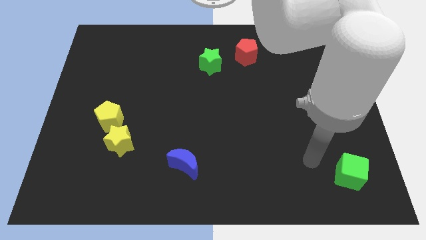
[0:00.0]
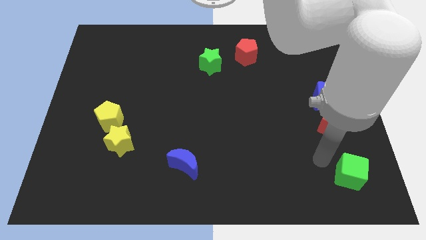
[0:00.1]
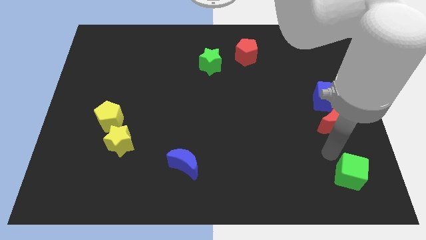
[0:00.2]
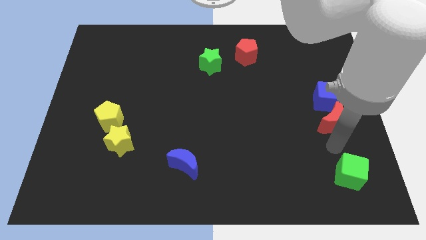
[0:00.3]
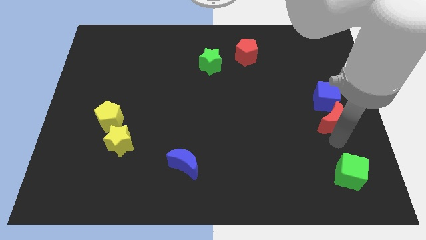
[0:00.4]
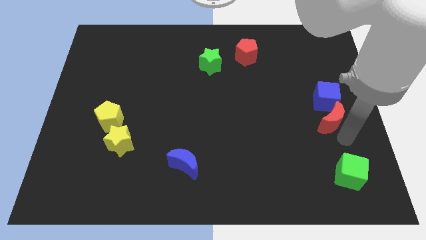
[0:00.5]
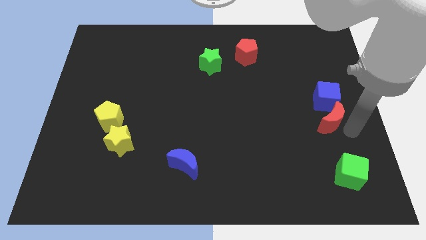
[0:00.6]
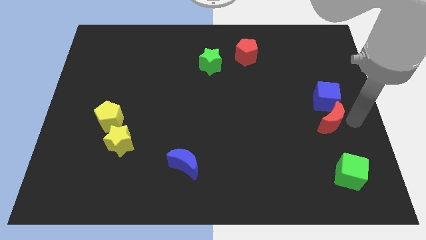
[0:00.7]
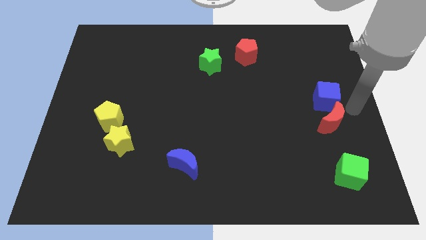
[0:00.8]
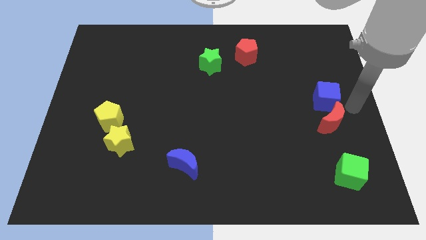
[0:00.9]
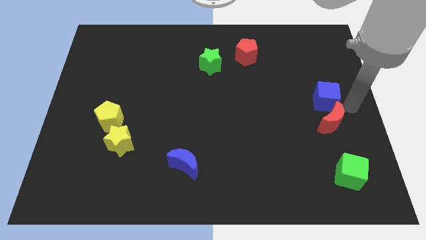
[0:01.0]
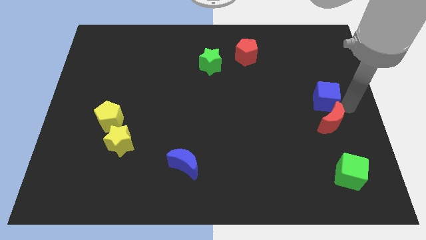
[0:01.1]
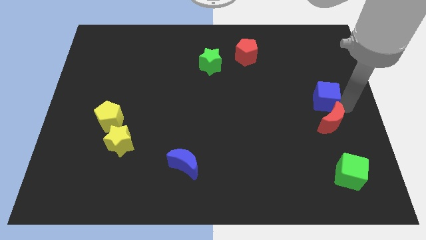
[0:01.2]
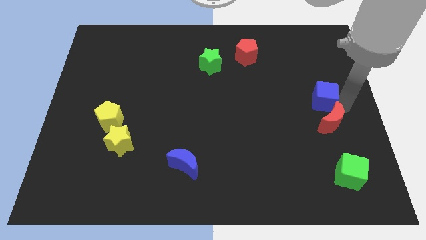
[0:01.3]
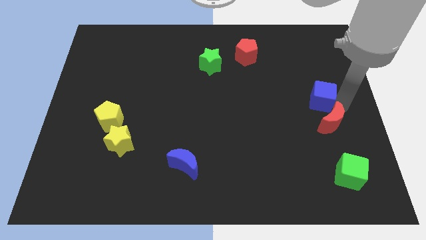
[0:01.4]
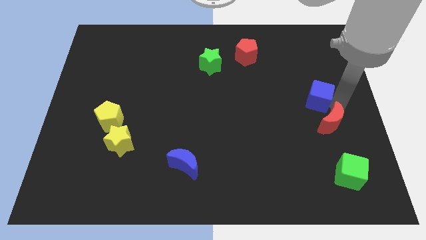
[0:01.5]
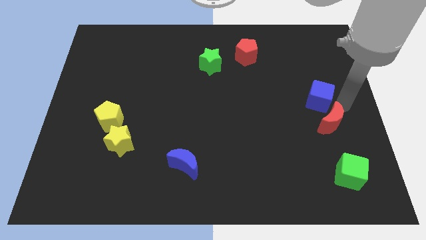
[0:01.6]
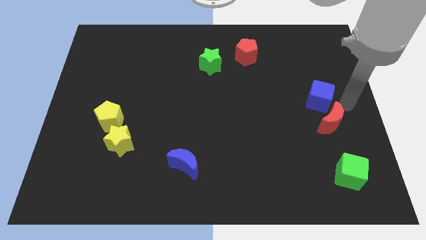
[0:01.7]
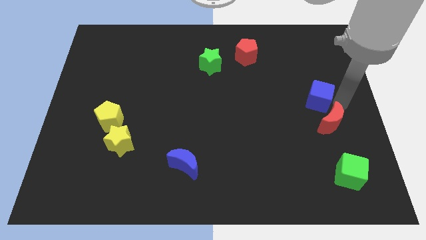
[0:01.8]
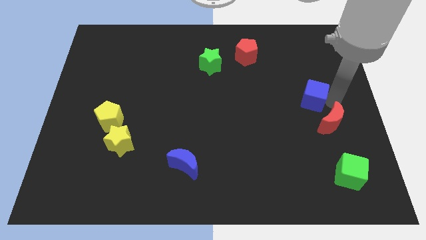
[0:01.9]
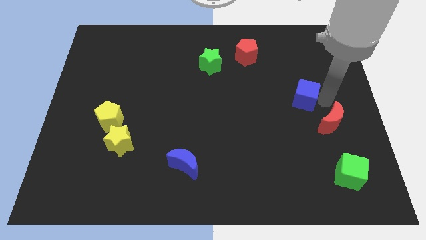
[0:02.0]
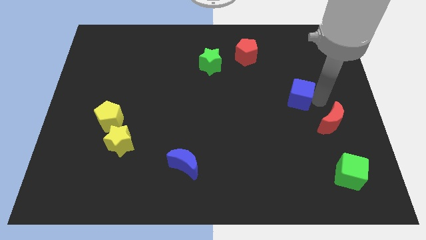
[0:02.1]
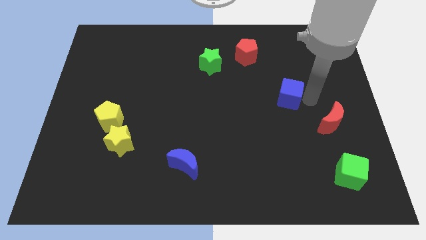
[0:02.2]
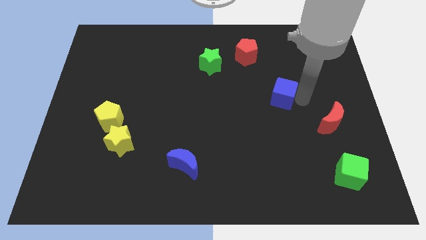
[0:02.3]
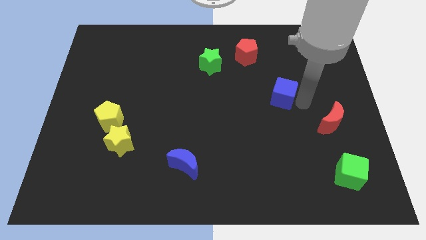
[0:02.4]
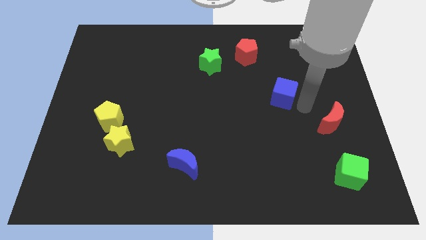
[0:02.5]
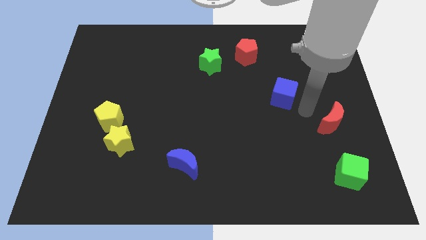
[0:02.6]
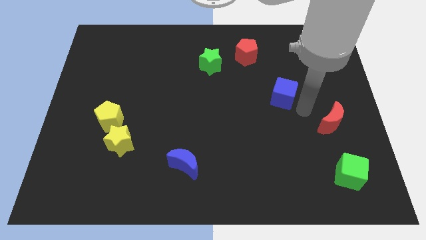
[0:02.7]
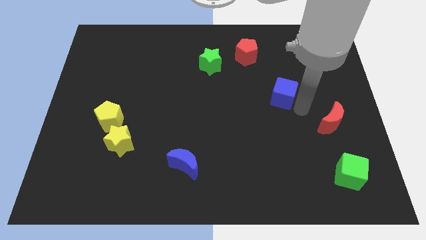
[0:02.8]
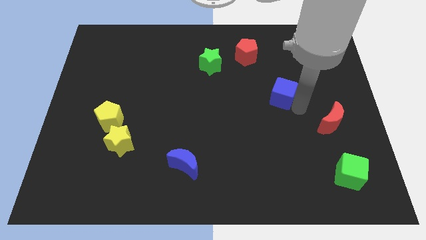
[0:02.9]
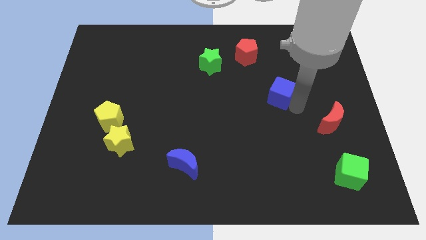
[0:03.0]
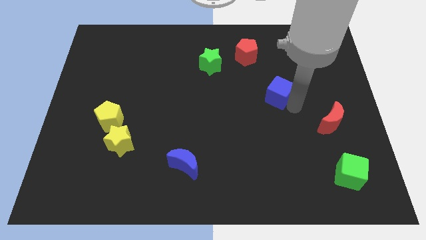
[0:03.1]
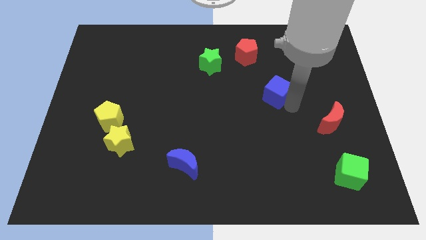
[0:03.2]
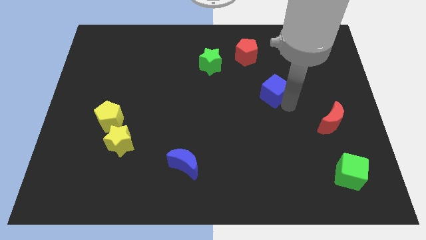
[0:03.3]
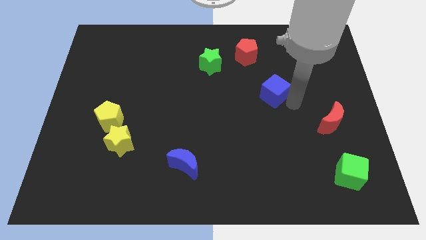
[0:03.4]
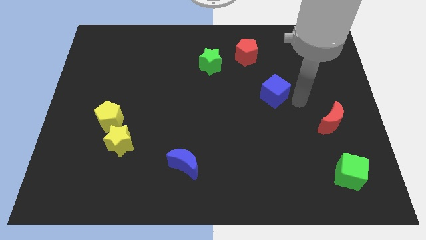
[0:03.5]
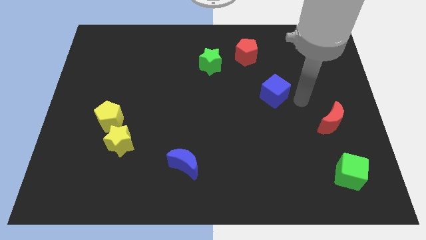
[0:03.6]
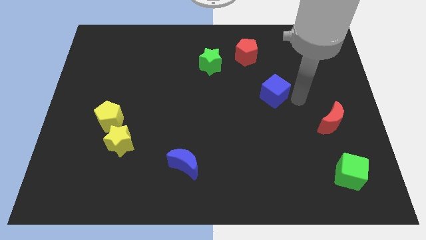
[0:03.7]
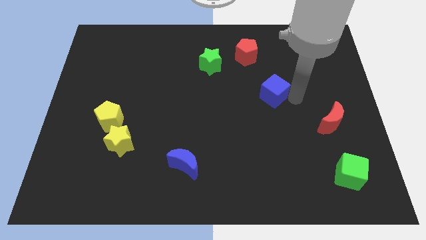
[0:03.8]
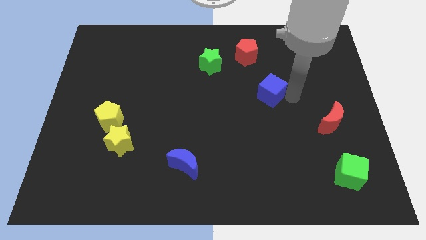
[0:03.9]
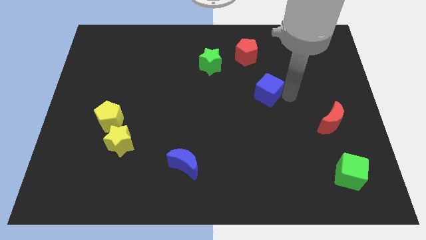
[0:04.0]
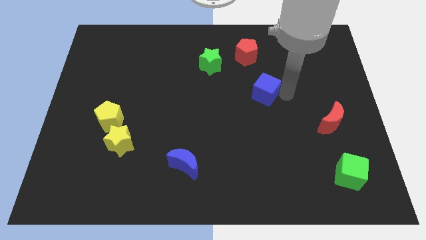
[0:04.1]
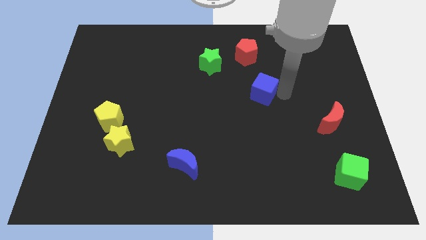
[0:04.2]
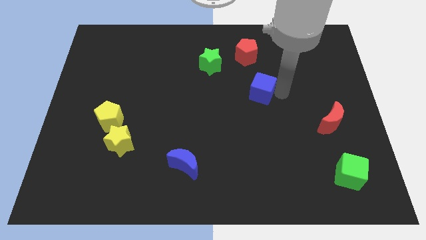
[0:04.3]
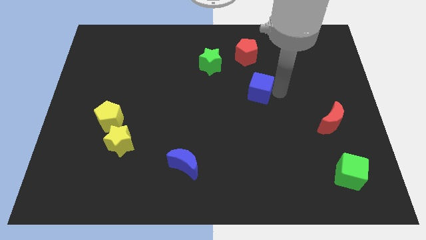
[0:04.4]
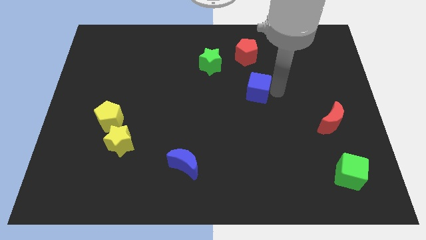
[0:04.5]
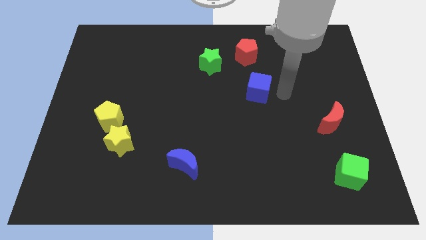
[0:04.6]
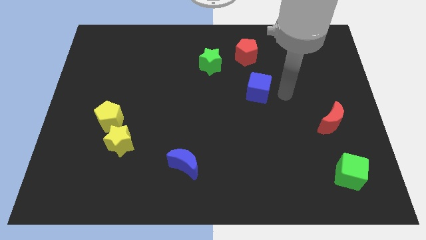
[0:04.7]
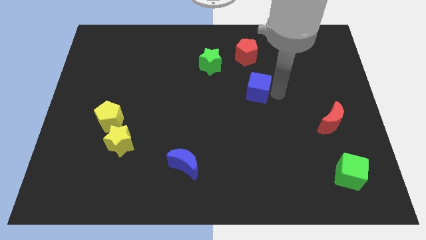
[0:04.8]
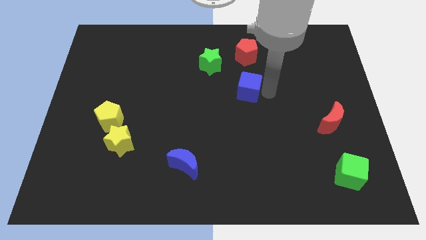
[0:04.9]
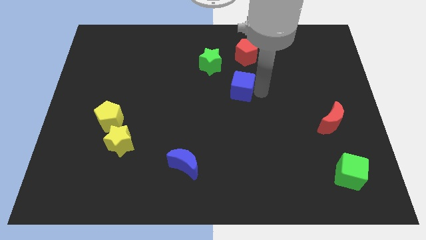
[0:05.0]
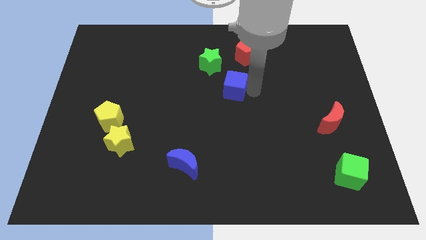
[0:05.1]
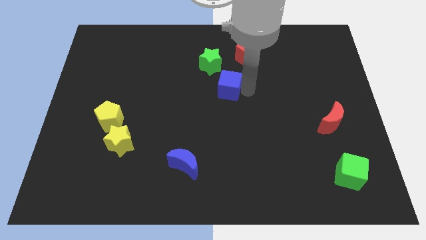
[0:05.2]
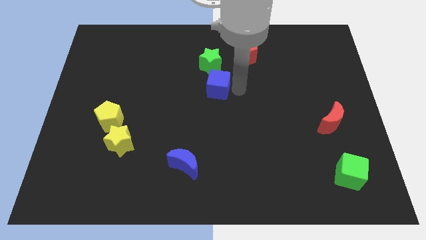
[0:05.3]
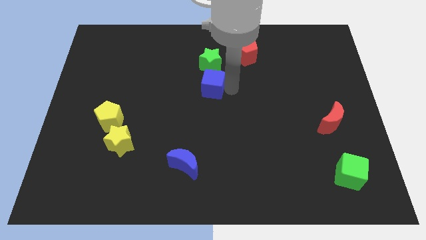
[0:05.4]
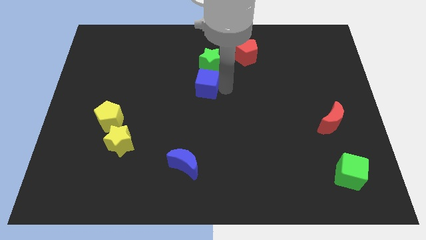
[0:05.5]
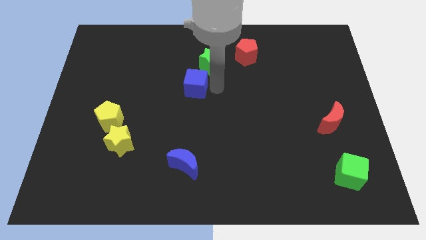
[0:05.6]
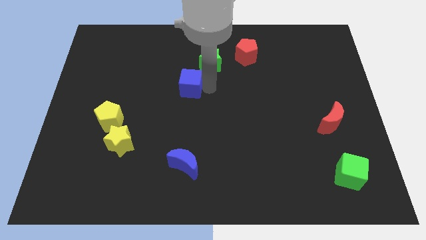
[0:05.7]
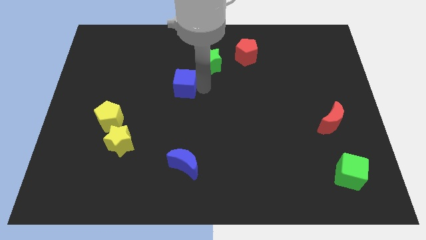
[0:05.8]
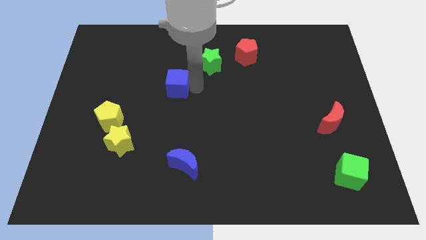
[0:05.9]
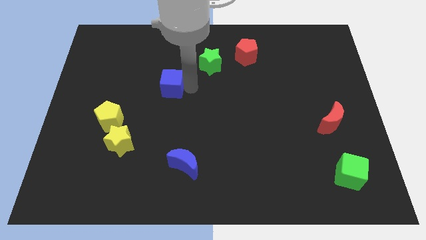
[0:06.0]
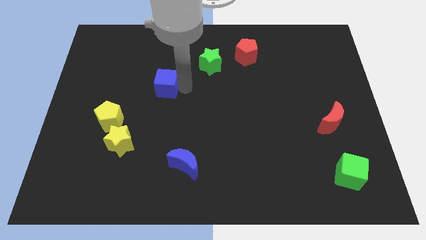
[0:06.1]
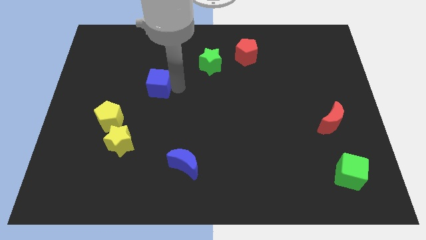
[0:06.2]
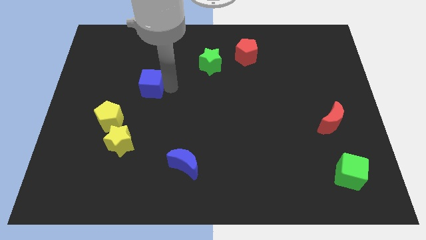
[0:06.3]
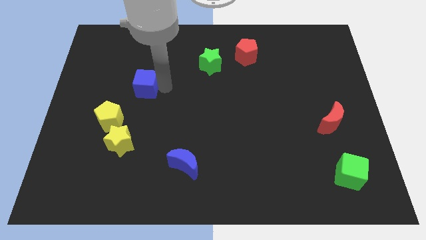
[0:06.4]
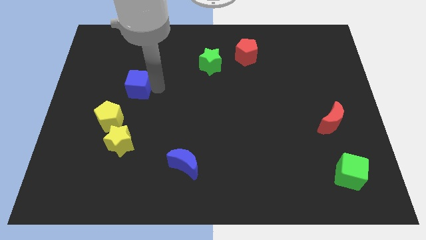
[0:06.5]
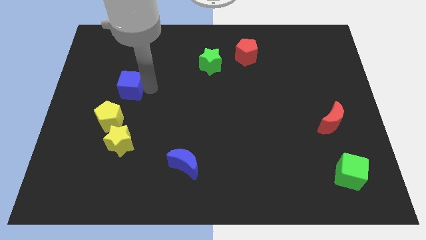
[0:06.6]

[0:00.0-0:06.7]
move the blue cube to the top side of the yellow pentagon
